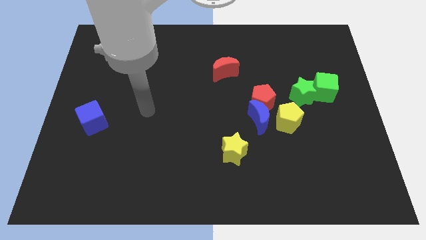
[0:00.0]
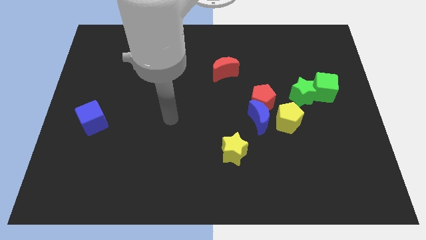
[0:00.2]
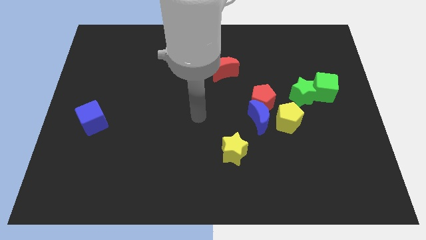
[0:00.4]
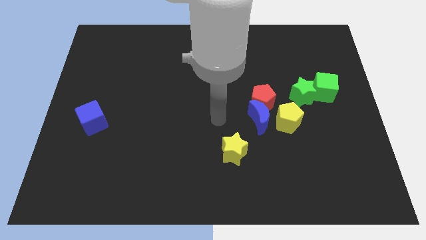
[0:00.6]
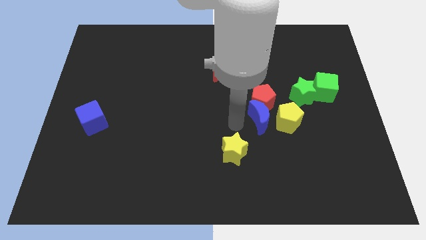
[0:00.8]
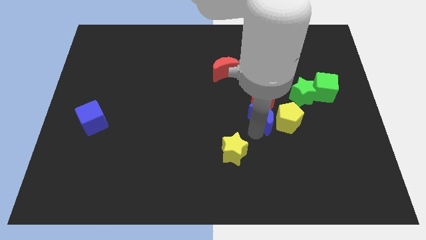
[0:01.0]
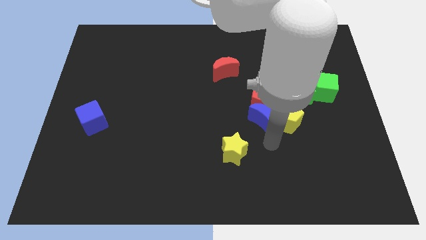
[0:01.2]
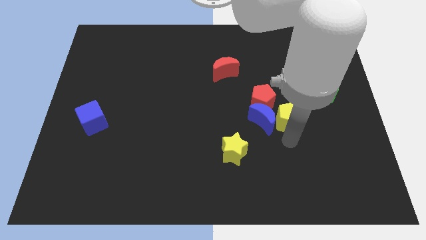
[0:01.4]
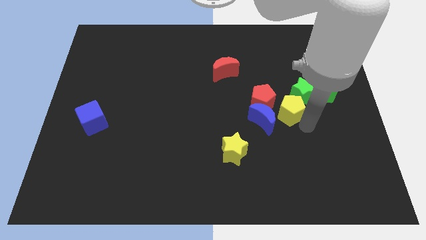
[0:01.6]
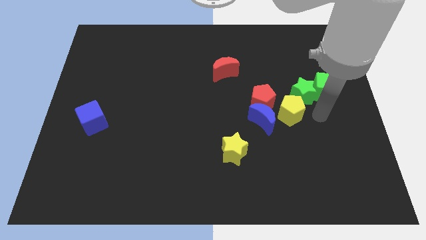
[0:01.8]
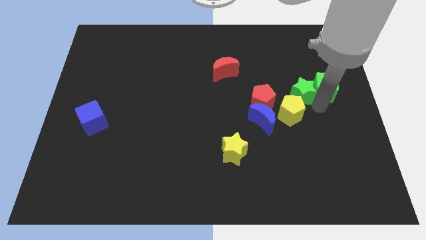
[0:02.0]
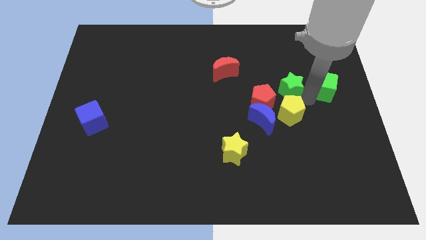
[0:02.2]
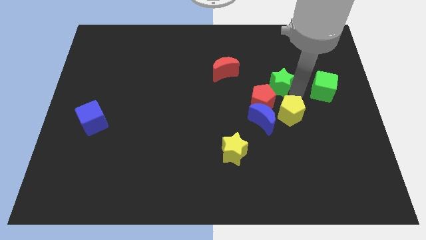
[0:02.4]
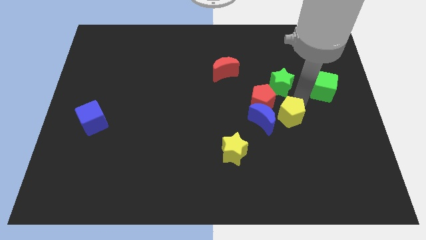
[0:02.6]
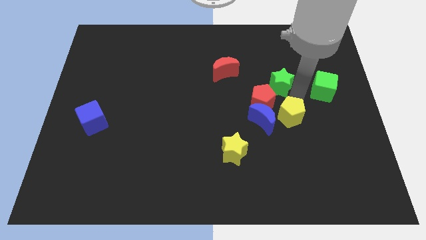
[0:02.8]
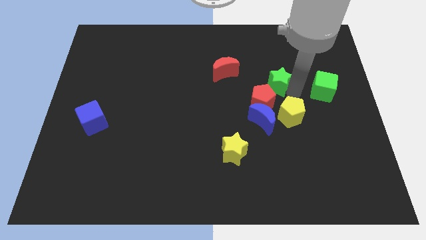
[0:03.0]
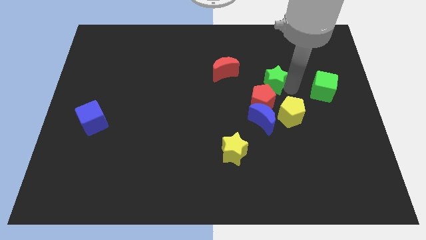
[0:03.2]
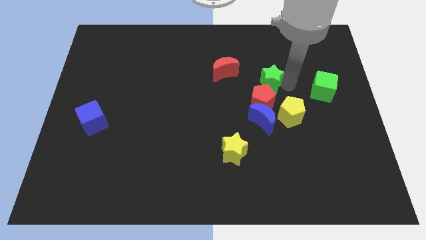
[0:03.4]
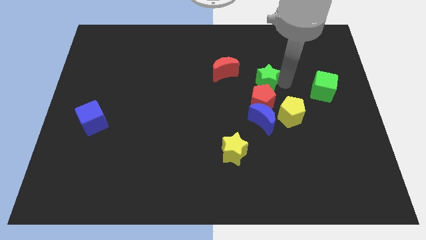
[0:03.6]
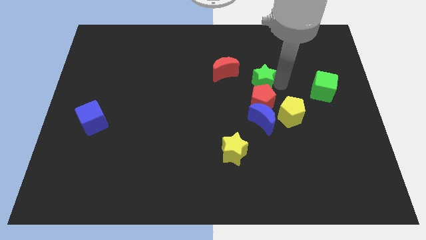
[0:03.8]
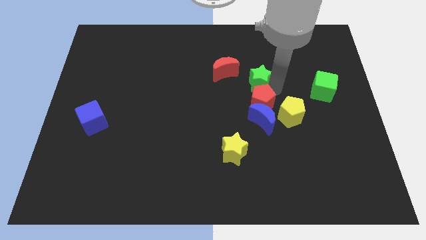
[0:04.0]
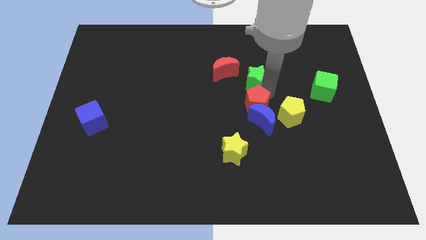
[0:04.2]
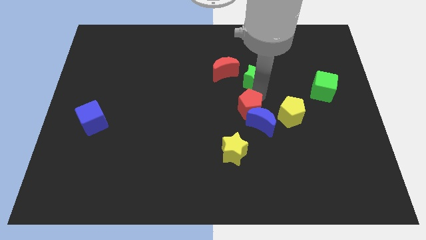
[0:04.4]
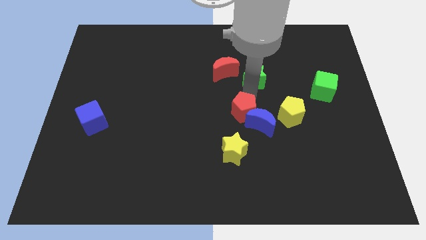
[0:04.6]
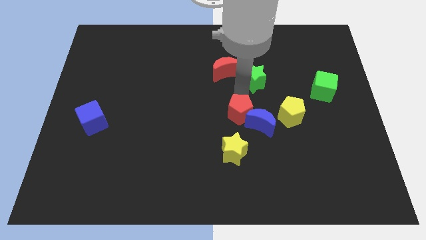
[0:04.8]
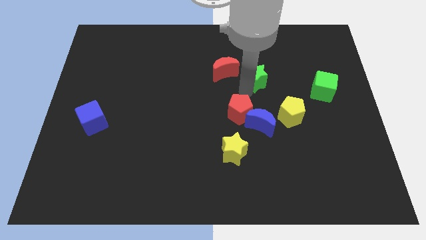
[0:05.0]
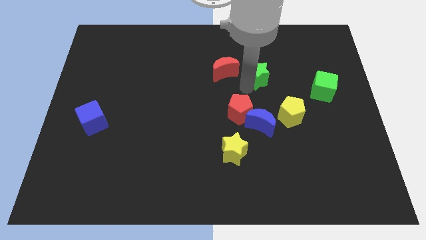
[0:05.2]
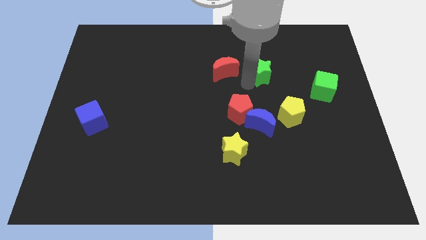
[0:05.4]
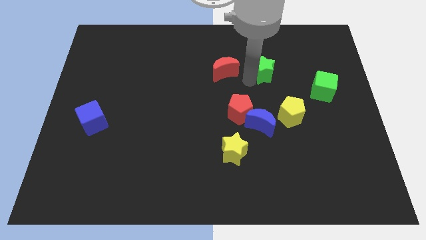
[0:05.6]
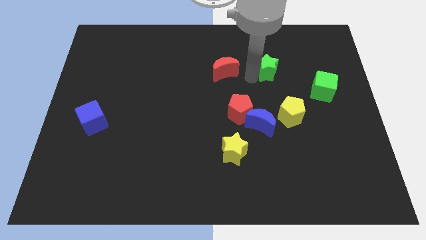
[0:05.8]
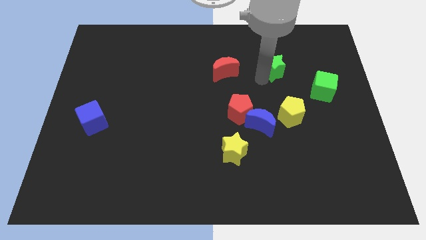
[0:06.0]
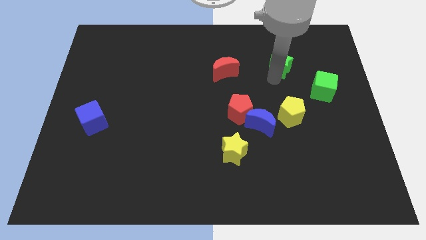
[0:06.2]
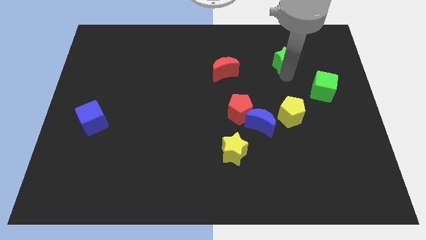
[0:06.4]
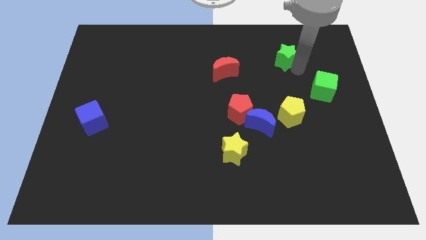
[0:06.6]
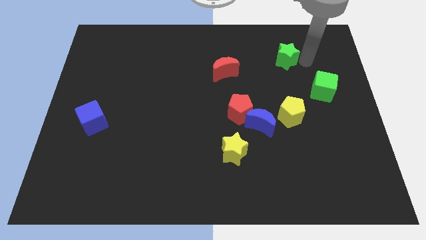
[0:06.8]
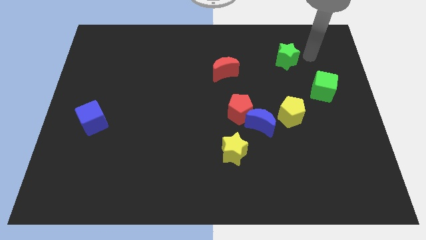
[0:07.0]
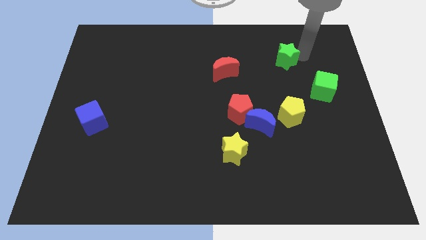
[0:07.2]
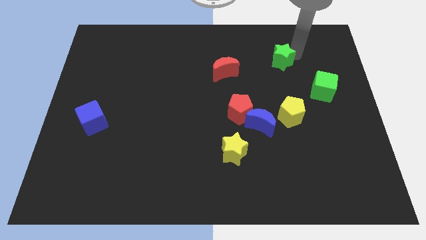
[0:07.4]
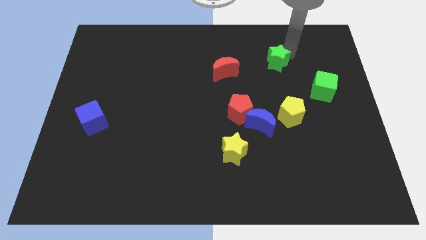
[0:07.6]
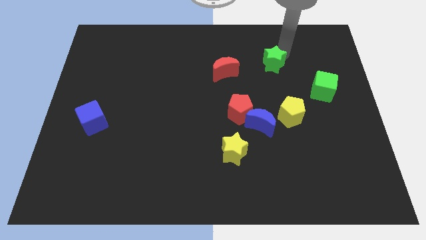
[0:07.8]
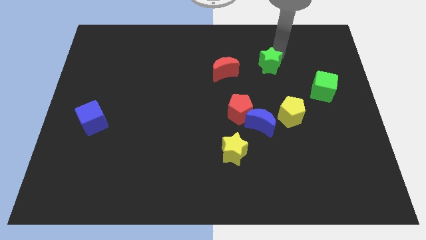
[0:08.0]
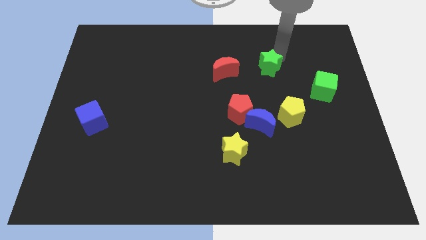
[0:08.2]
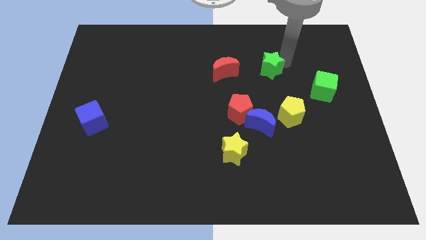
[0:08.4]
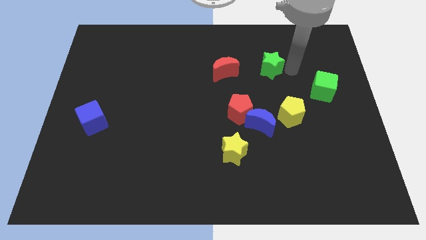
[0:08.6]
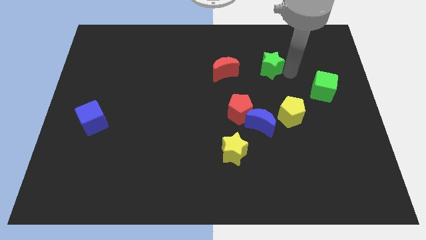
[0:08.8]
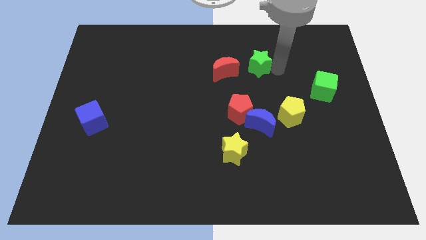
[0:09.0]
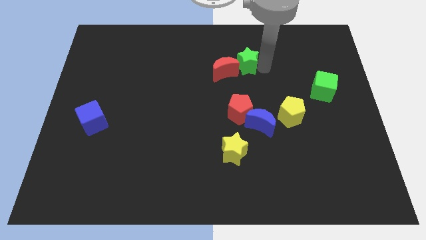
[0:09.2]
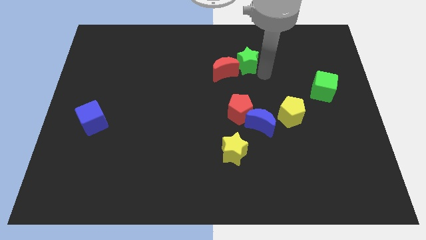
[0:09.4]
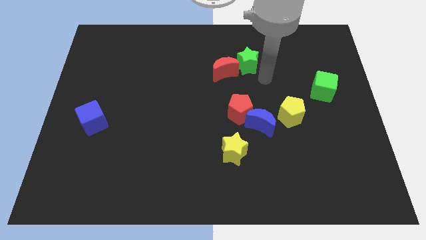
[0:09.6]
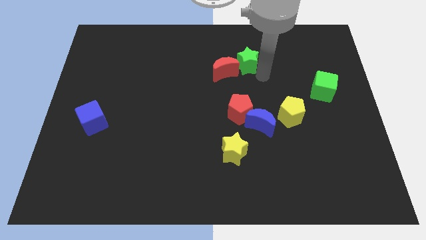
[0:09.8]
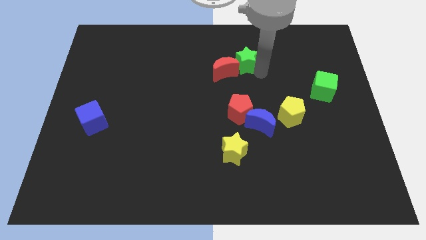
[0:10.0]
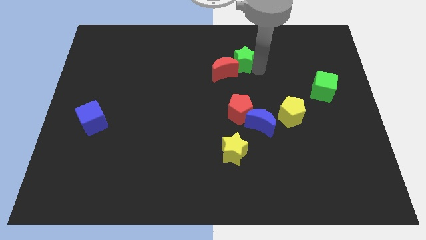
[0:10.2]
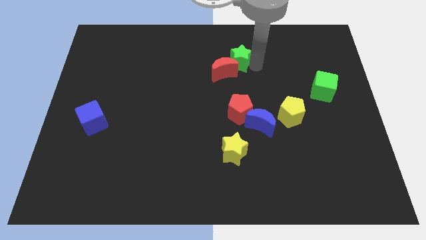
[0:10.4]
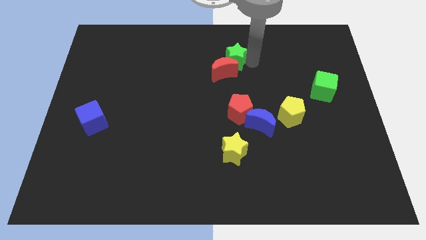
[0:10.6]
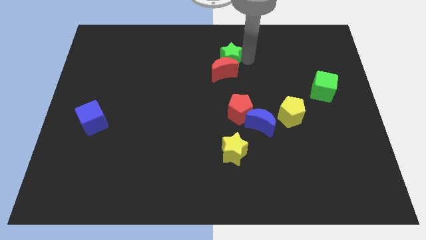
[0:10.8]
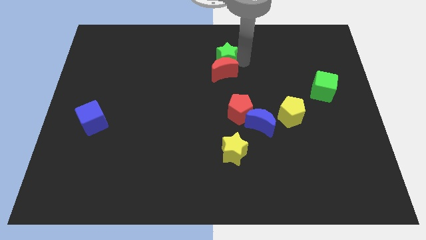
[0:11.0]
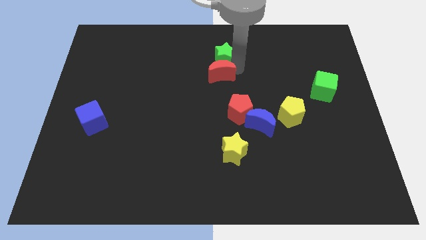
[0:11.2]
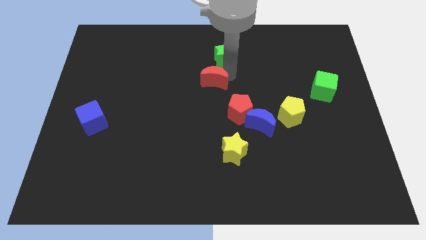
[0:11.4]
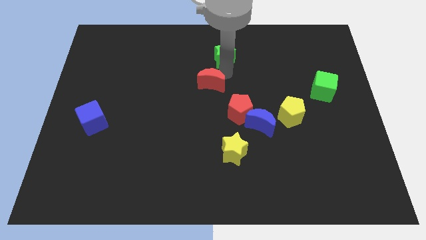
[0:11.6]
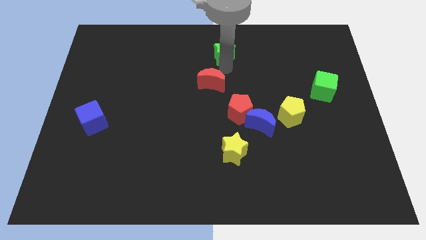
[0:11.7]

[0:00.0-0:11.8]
slide the green star to the towards your base
